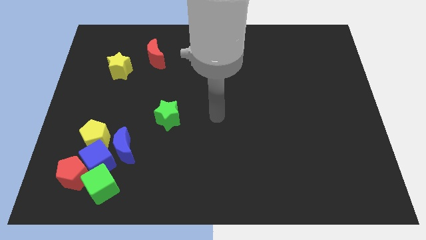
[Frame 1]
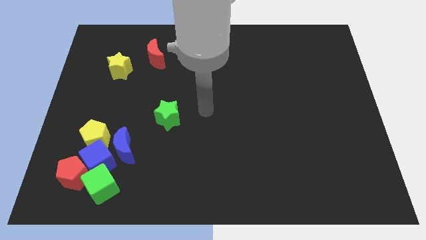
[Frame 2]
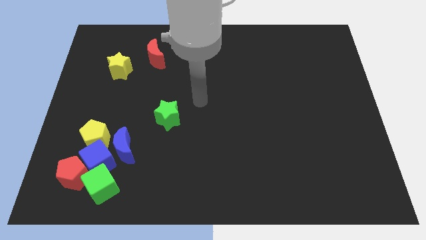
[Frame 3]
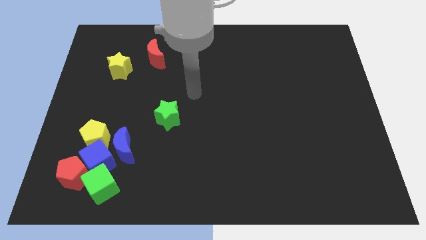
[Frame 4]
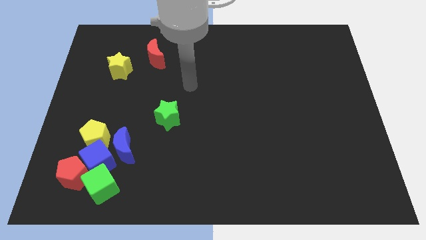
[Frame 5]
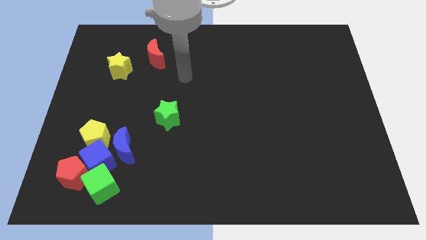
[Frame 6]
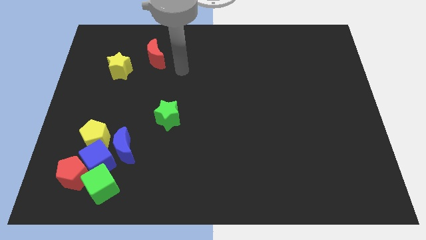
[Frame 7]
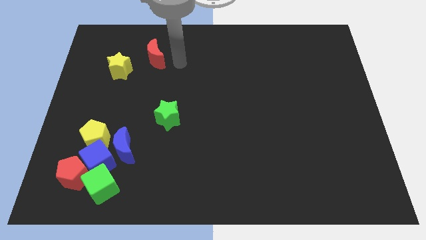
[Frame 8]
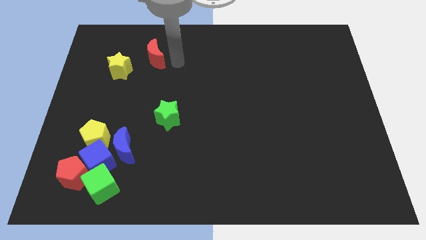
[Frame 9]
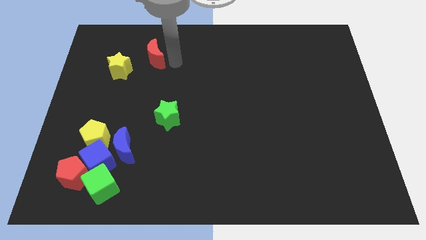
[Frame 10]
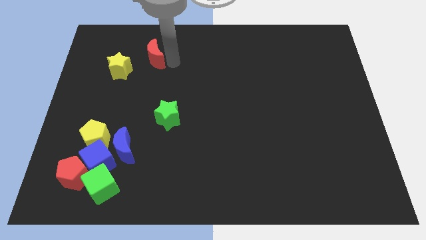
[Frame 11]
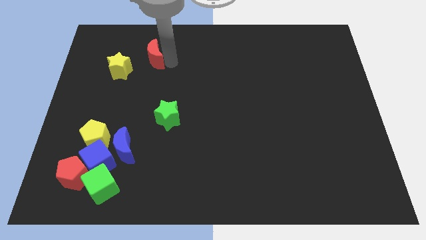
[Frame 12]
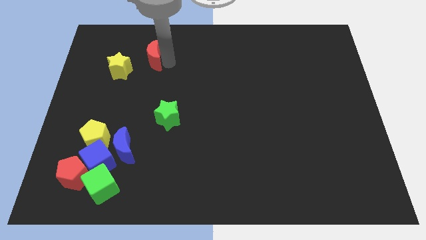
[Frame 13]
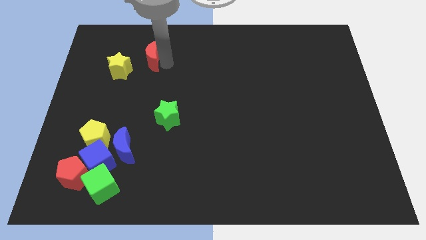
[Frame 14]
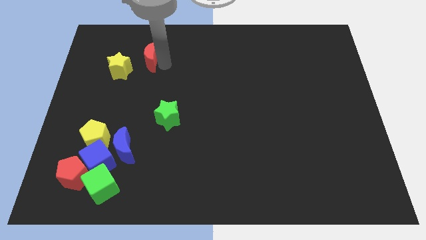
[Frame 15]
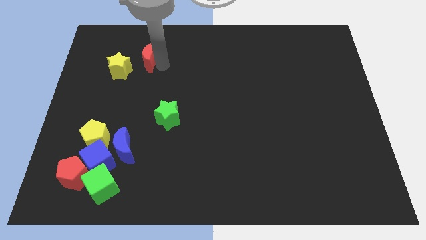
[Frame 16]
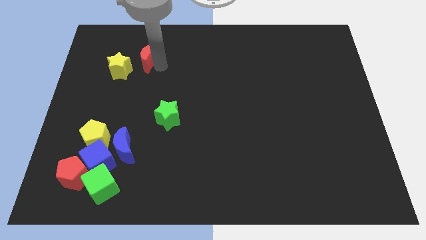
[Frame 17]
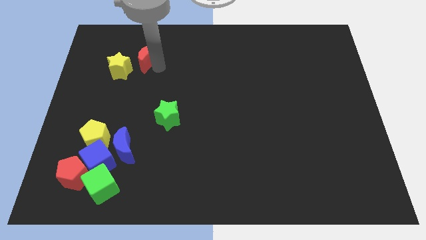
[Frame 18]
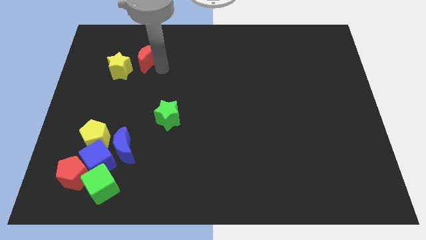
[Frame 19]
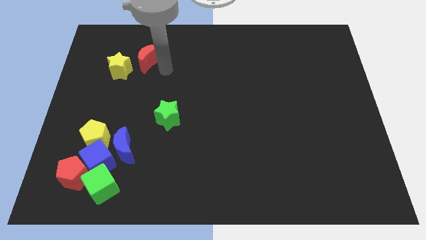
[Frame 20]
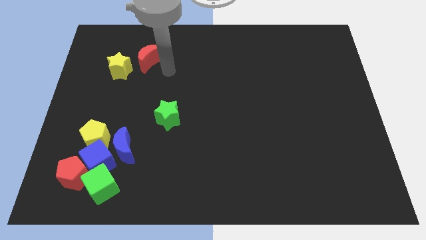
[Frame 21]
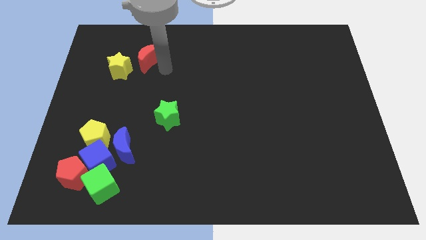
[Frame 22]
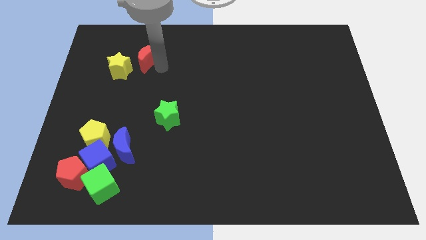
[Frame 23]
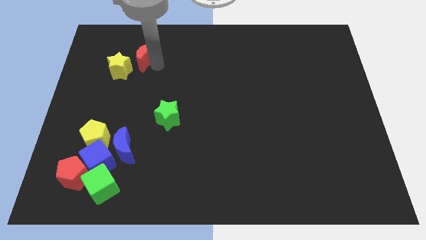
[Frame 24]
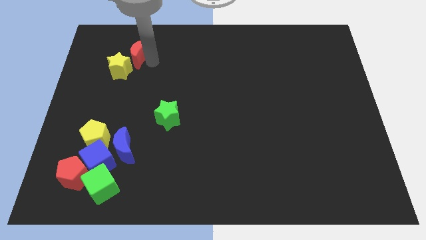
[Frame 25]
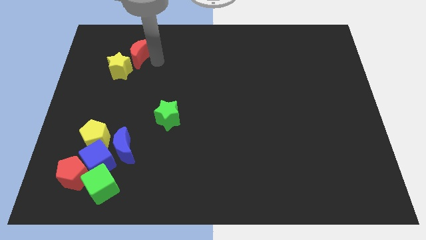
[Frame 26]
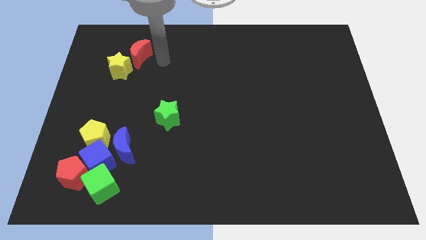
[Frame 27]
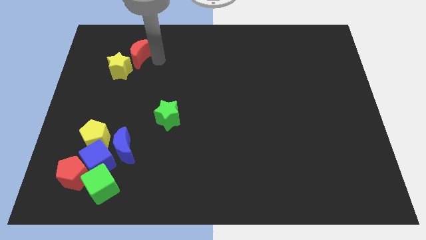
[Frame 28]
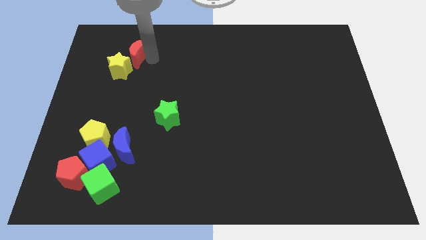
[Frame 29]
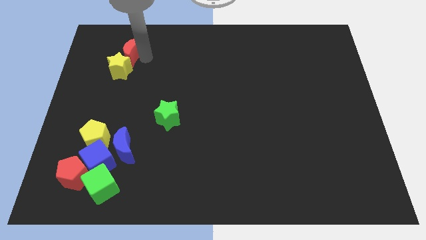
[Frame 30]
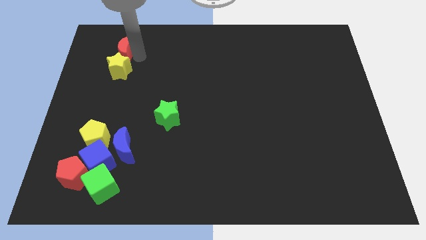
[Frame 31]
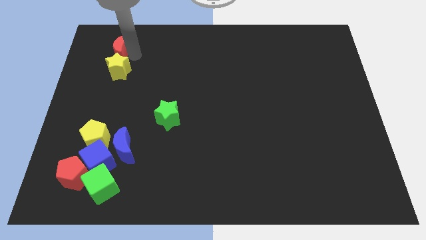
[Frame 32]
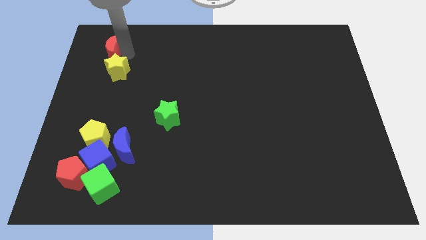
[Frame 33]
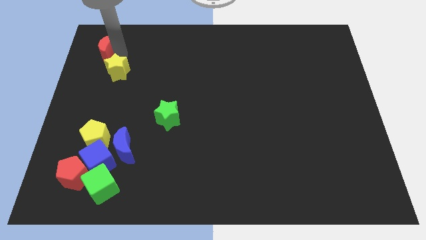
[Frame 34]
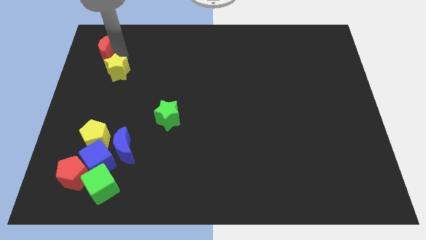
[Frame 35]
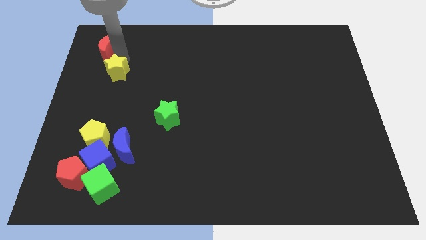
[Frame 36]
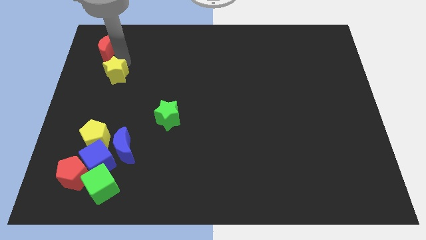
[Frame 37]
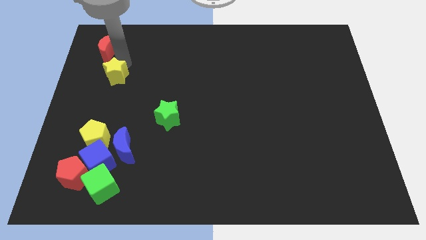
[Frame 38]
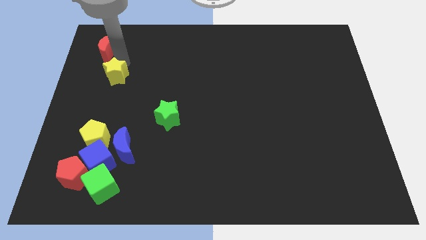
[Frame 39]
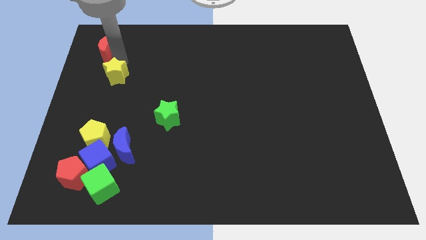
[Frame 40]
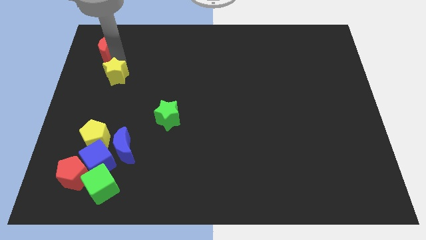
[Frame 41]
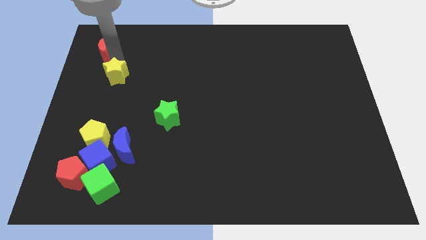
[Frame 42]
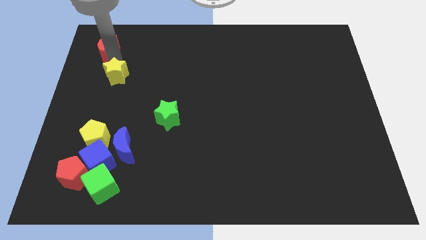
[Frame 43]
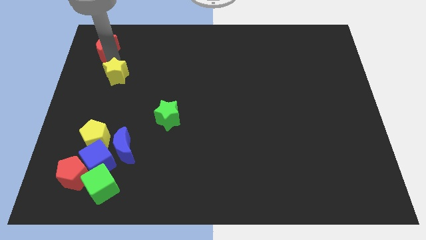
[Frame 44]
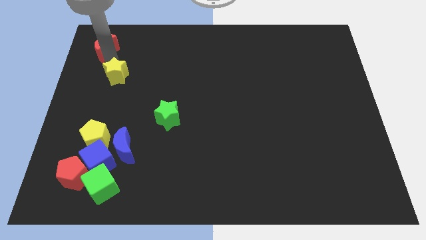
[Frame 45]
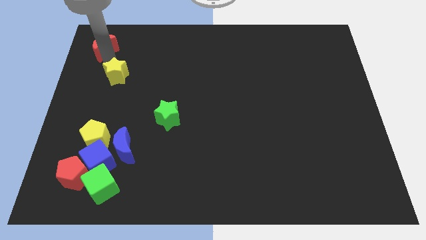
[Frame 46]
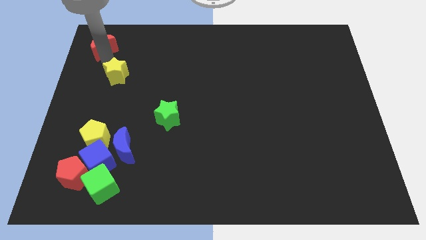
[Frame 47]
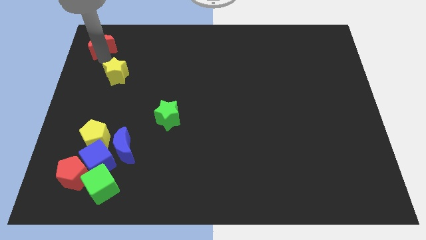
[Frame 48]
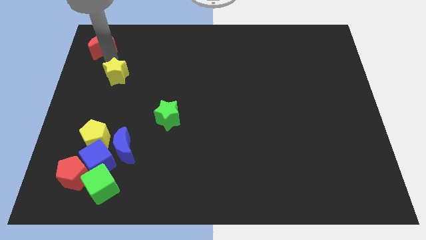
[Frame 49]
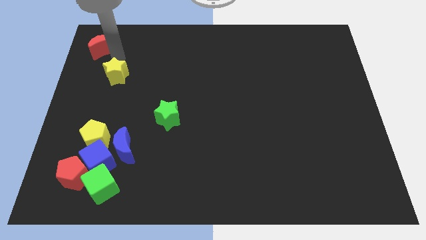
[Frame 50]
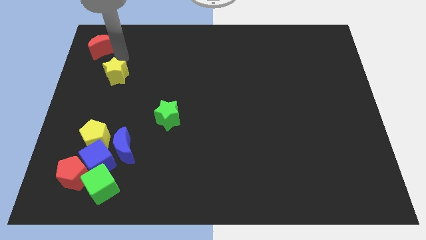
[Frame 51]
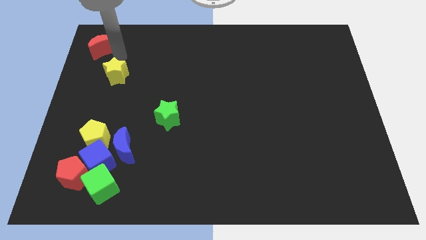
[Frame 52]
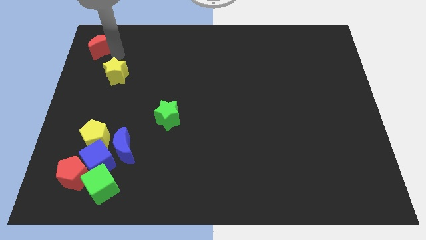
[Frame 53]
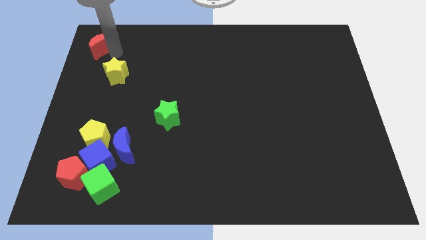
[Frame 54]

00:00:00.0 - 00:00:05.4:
slide the red moon to the upper left corner
